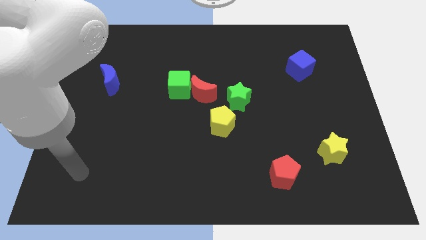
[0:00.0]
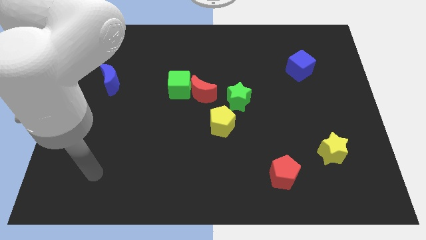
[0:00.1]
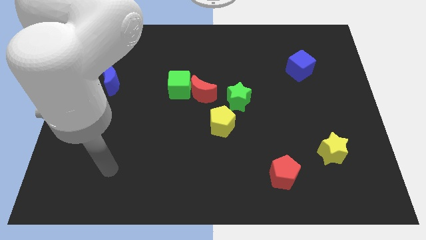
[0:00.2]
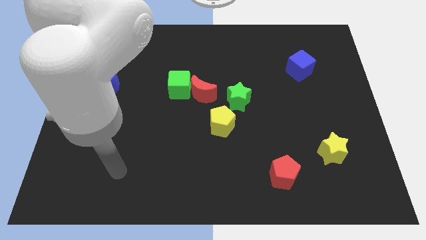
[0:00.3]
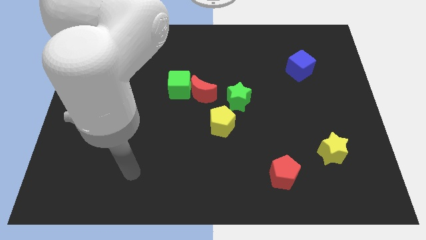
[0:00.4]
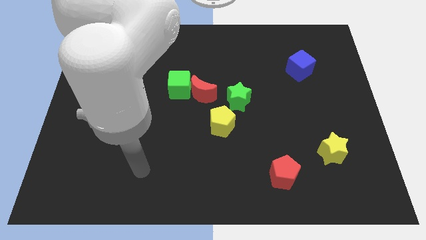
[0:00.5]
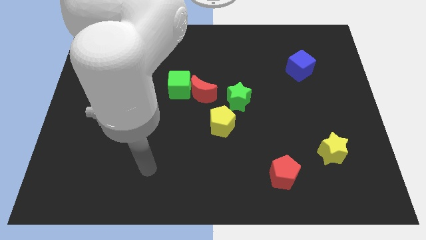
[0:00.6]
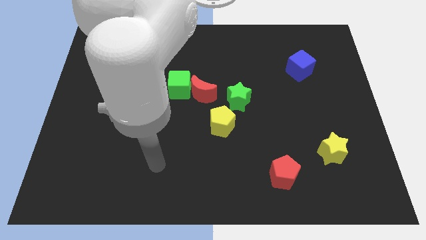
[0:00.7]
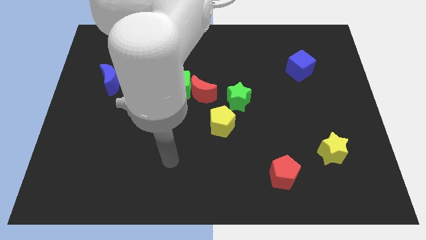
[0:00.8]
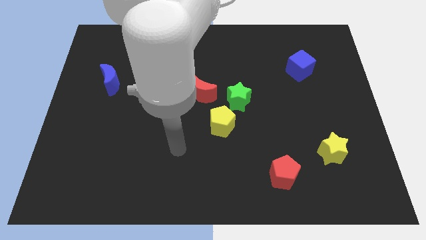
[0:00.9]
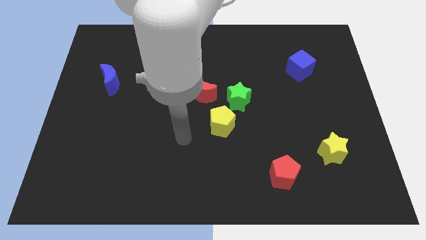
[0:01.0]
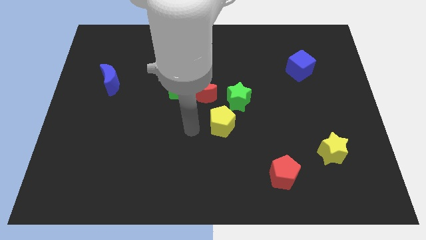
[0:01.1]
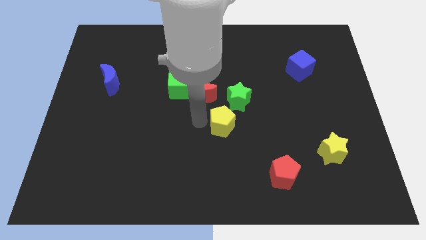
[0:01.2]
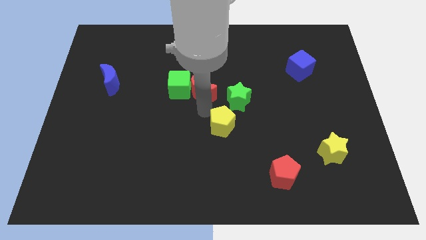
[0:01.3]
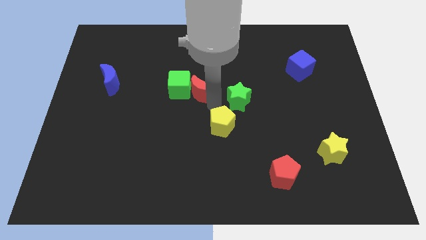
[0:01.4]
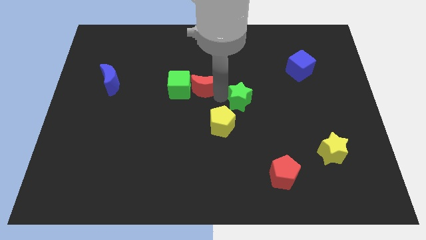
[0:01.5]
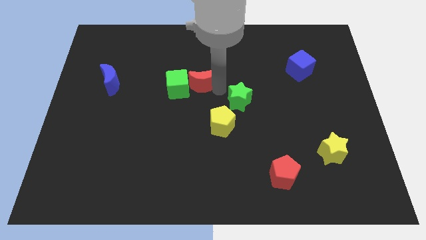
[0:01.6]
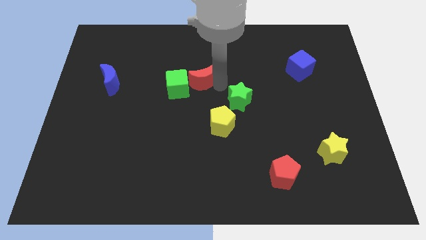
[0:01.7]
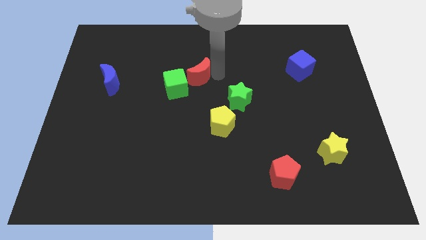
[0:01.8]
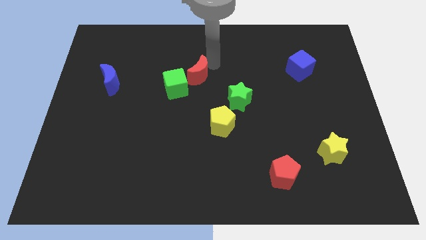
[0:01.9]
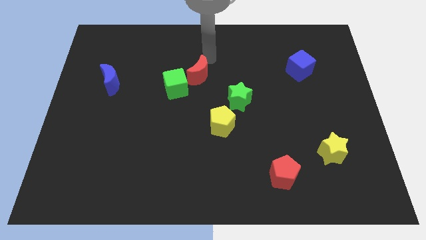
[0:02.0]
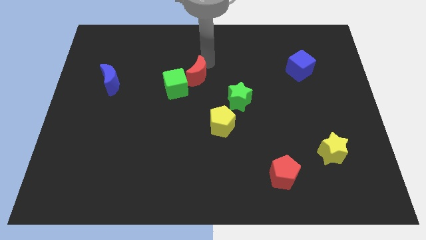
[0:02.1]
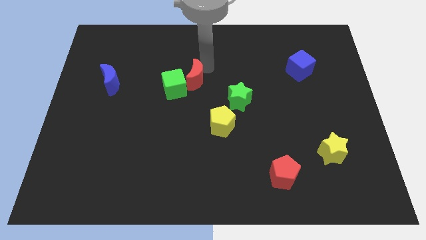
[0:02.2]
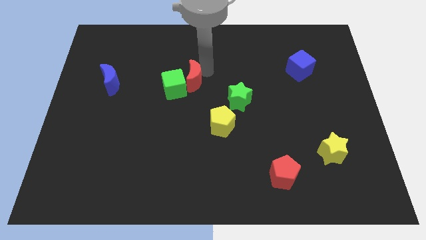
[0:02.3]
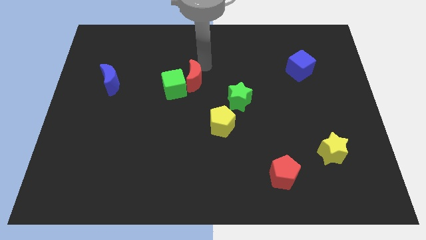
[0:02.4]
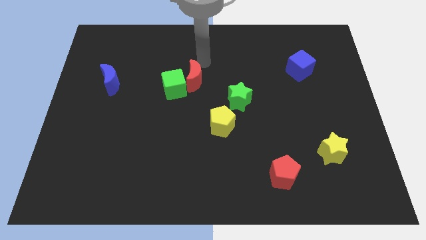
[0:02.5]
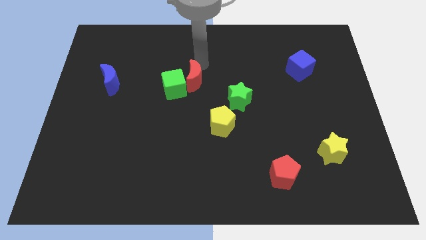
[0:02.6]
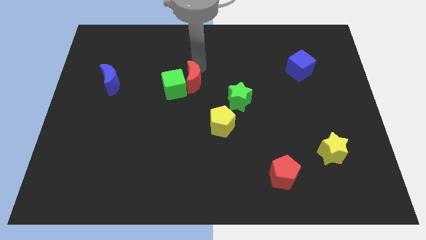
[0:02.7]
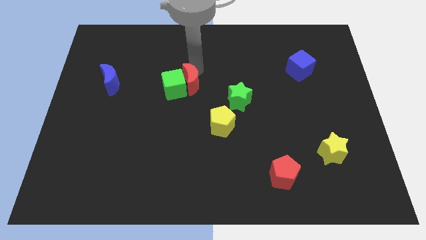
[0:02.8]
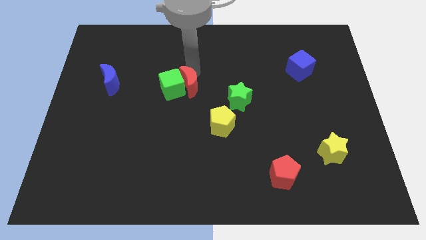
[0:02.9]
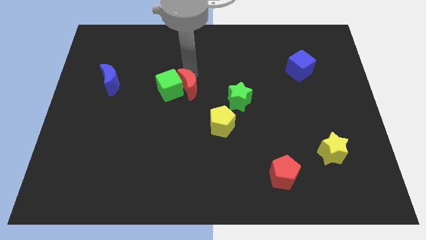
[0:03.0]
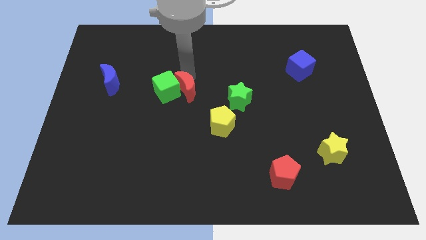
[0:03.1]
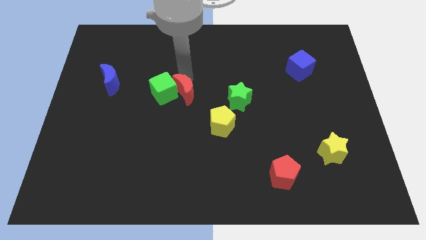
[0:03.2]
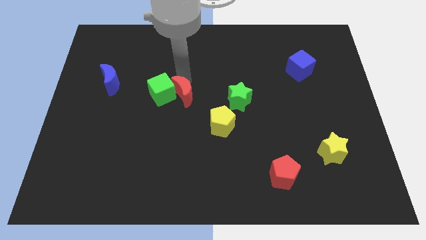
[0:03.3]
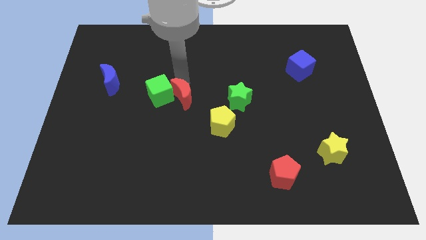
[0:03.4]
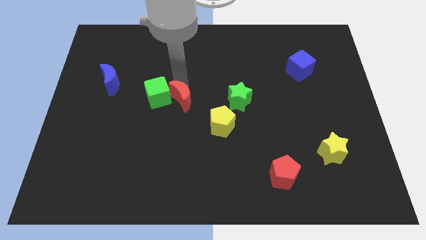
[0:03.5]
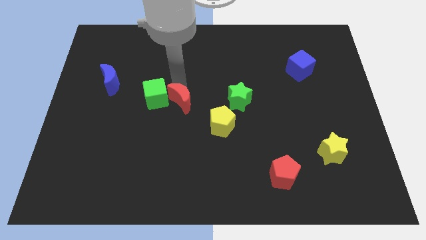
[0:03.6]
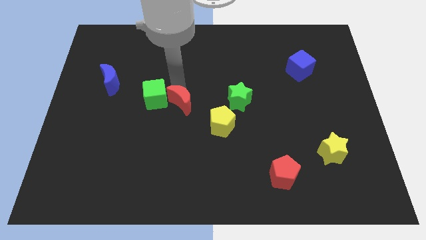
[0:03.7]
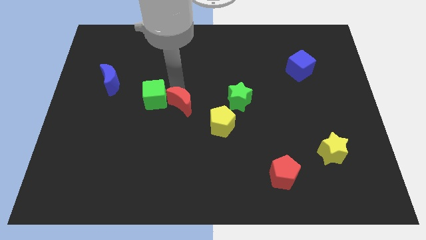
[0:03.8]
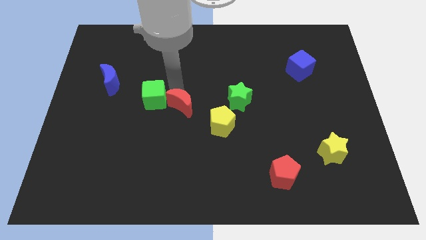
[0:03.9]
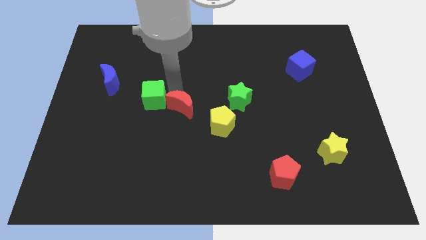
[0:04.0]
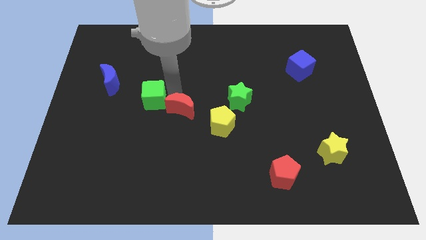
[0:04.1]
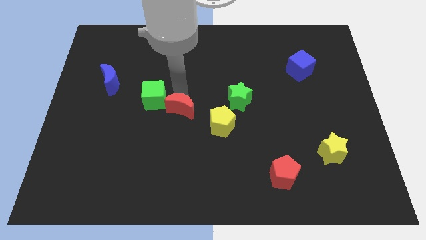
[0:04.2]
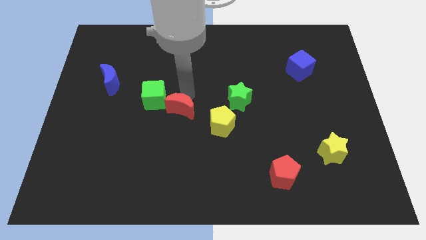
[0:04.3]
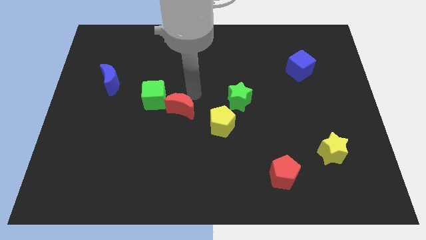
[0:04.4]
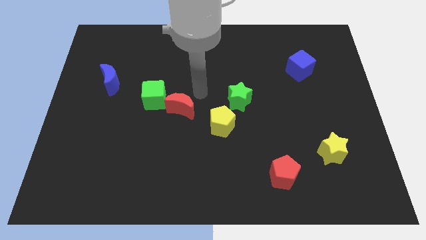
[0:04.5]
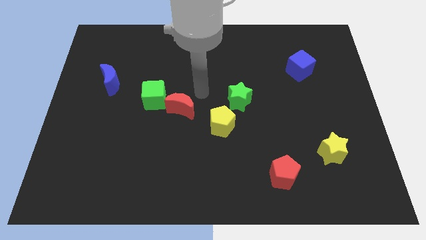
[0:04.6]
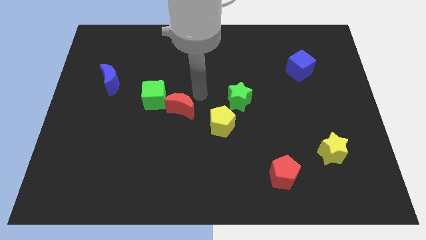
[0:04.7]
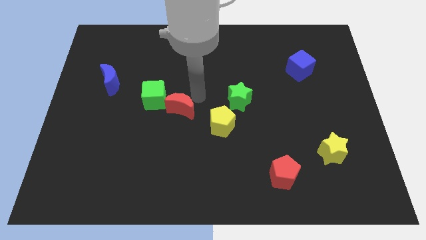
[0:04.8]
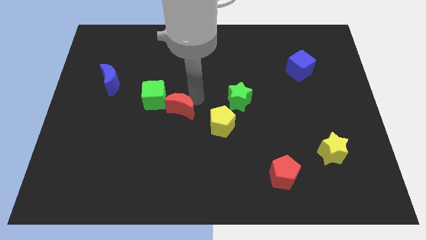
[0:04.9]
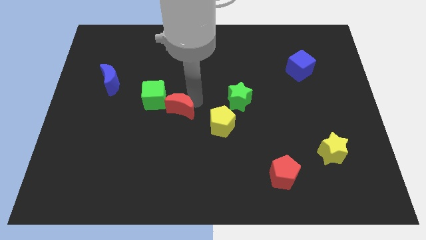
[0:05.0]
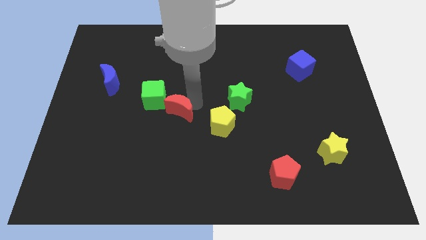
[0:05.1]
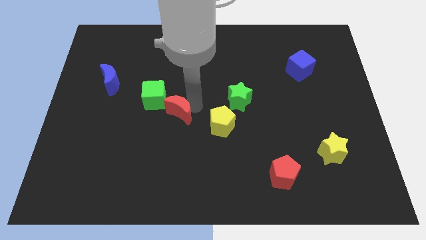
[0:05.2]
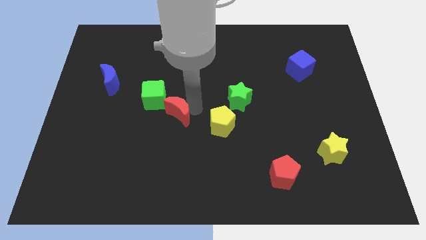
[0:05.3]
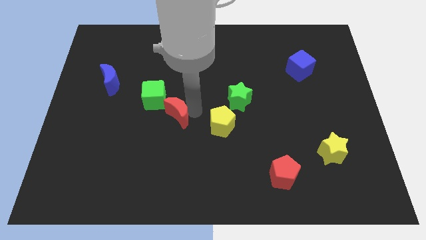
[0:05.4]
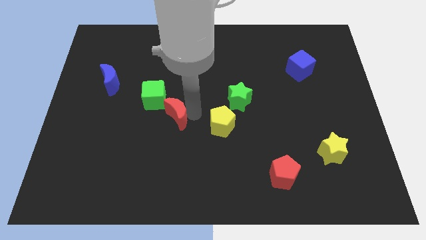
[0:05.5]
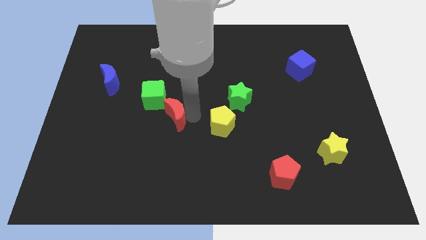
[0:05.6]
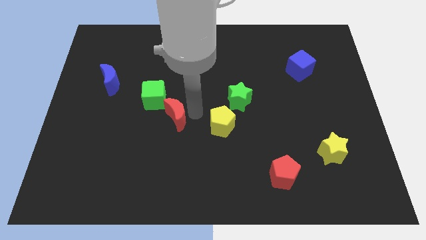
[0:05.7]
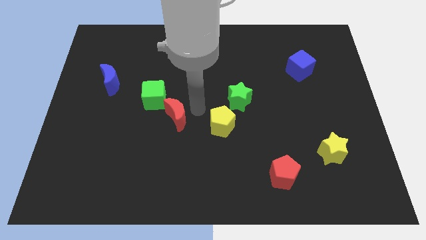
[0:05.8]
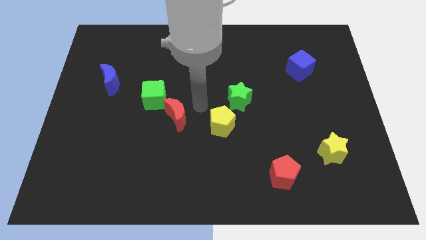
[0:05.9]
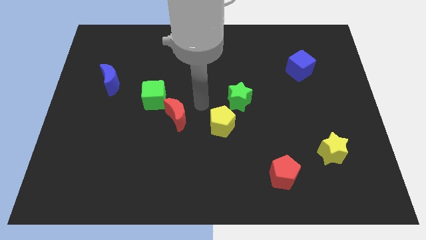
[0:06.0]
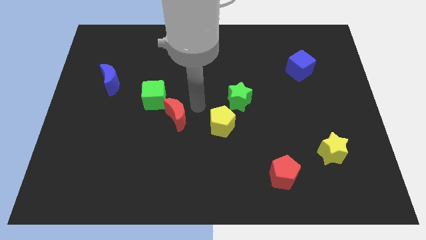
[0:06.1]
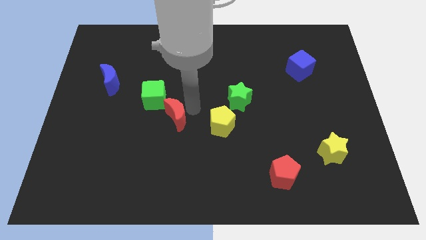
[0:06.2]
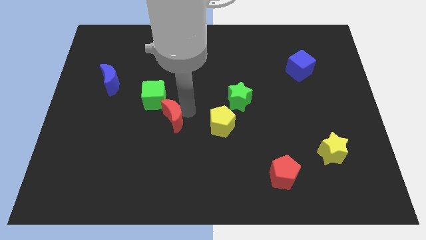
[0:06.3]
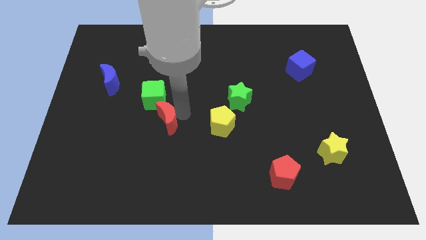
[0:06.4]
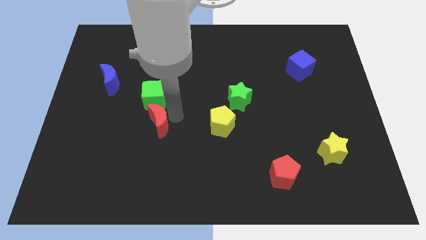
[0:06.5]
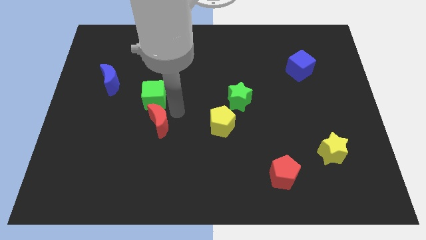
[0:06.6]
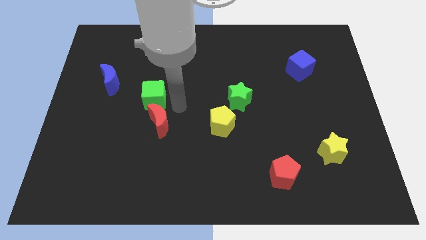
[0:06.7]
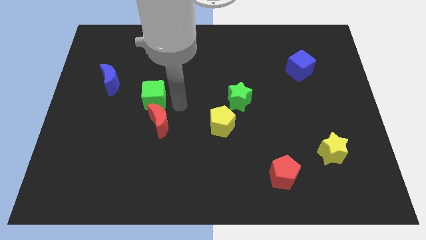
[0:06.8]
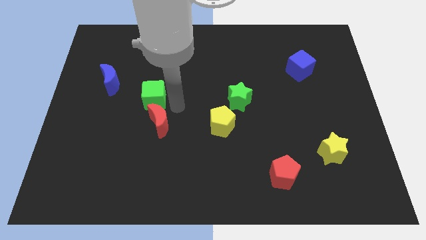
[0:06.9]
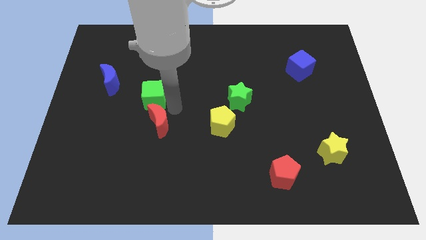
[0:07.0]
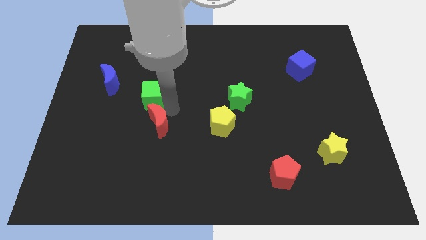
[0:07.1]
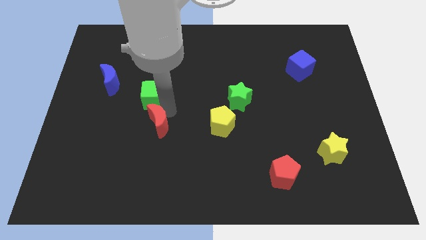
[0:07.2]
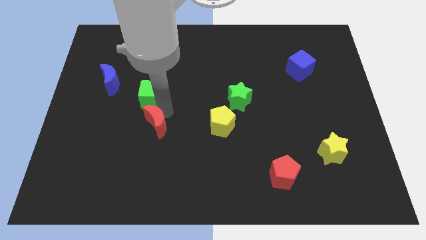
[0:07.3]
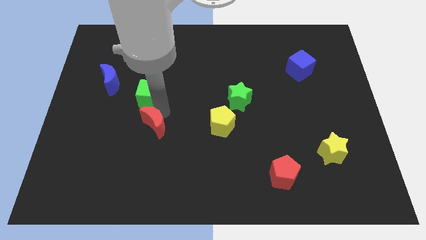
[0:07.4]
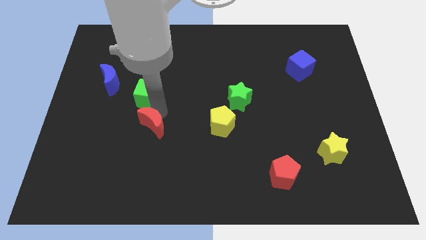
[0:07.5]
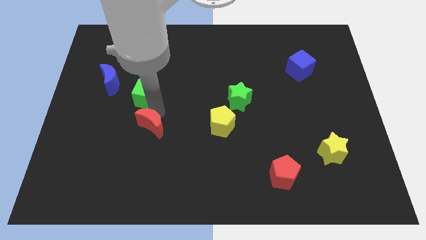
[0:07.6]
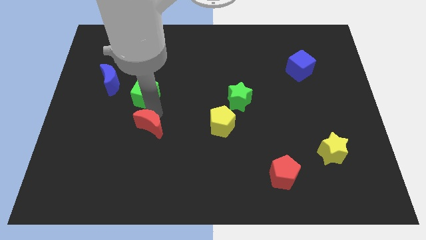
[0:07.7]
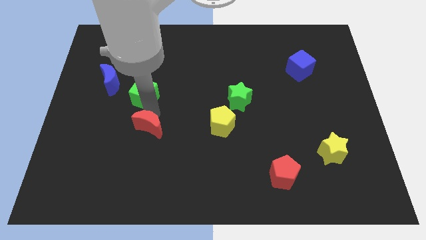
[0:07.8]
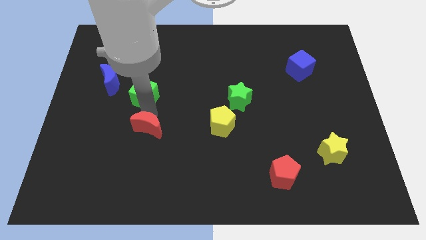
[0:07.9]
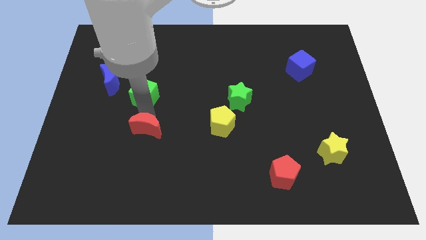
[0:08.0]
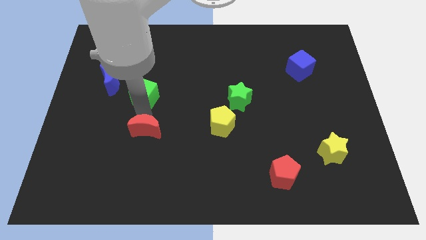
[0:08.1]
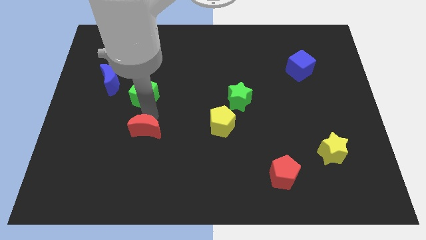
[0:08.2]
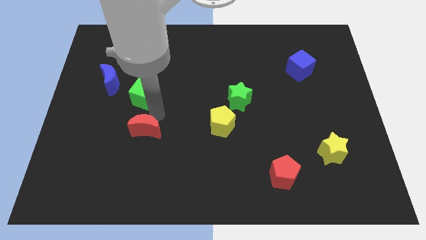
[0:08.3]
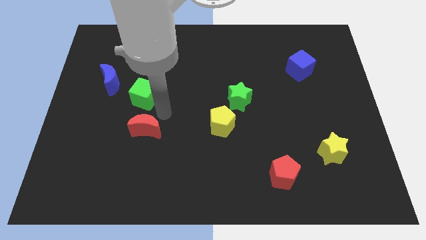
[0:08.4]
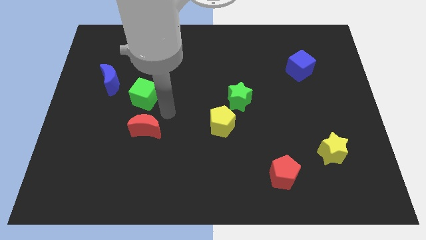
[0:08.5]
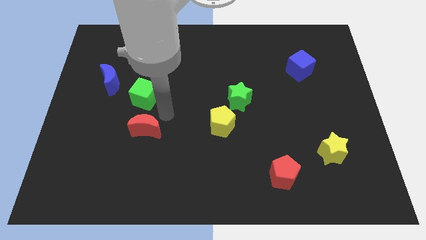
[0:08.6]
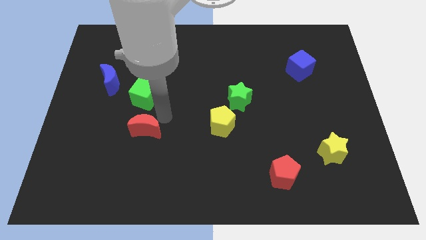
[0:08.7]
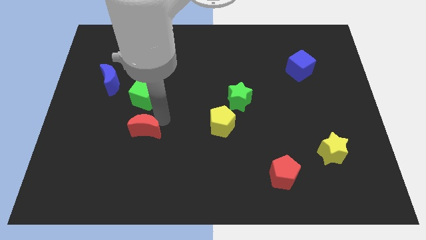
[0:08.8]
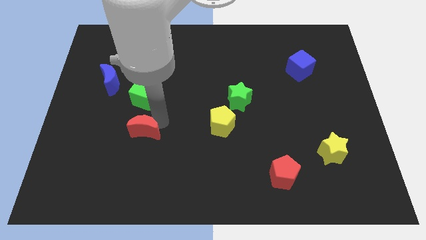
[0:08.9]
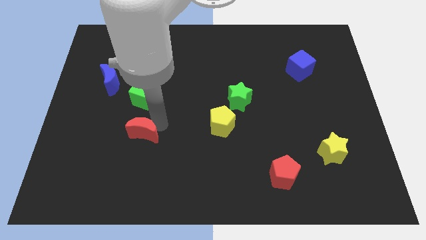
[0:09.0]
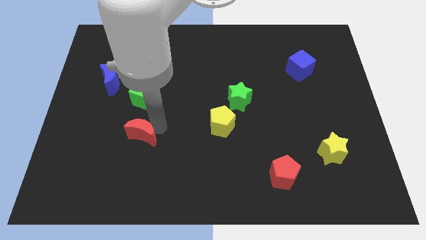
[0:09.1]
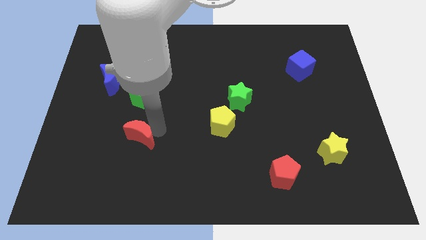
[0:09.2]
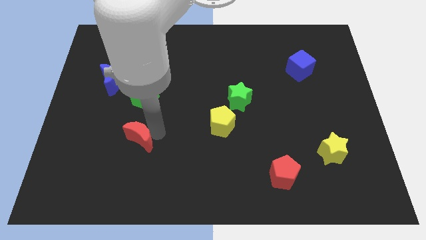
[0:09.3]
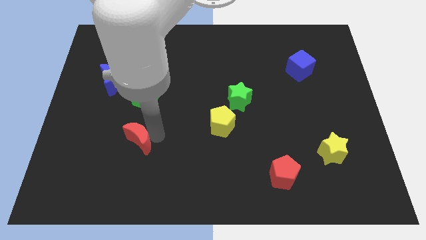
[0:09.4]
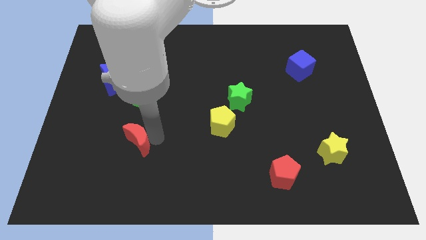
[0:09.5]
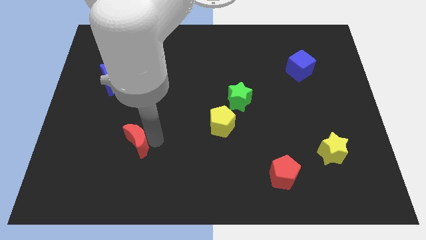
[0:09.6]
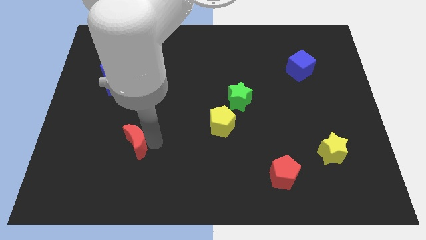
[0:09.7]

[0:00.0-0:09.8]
push the red moon diagonally downwards and left
